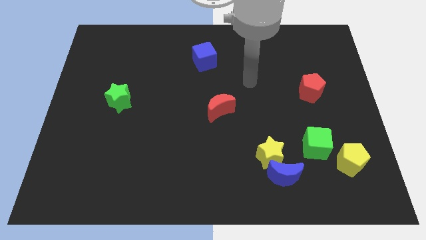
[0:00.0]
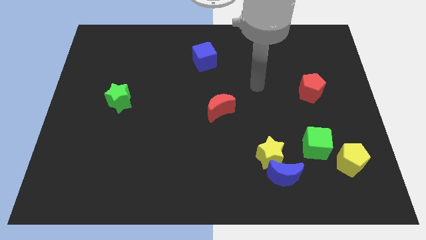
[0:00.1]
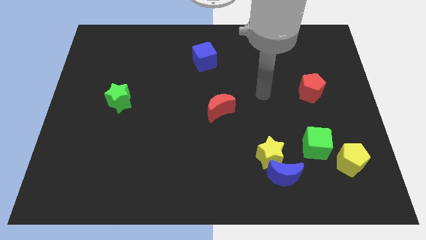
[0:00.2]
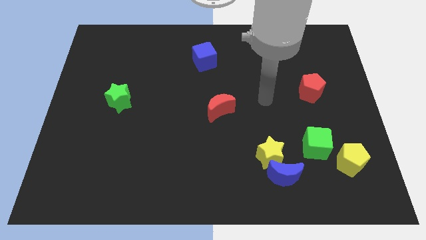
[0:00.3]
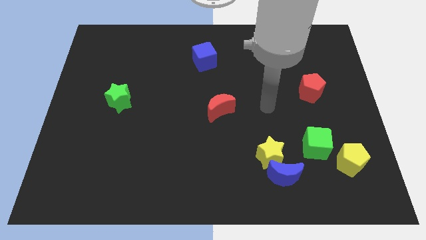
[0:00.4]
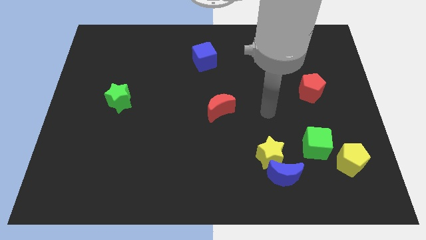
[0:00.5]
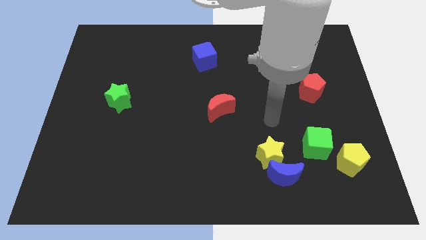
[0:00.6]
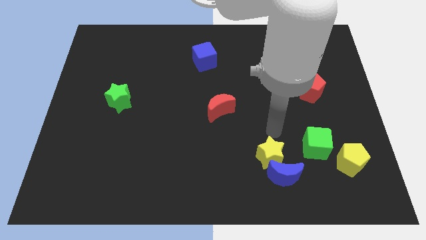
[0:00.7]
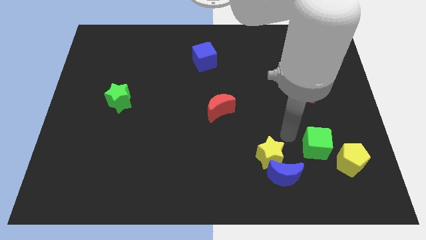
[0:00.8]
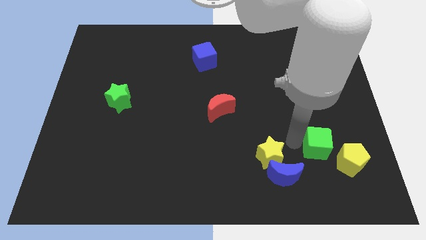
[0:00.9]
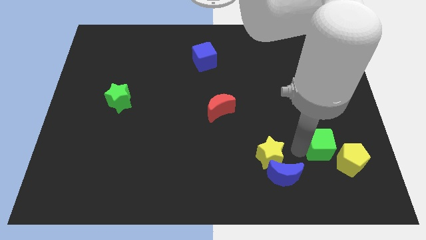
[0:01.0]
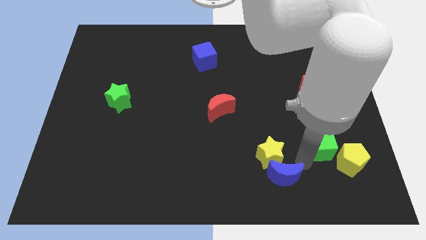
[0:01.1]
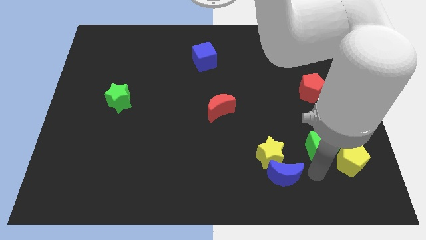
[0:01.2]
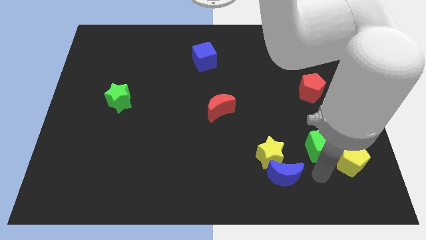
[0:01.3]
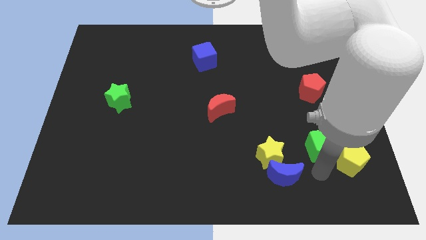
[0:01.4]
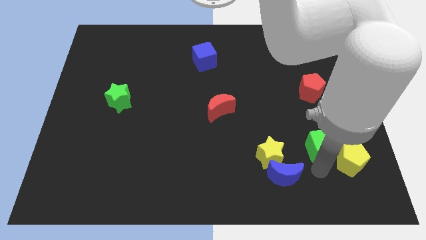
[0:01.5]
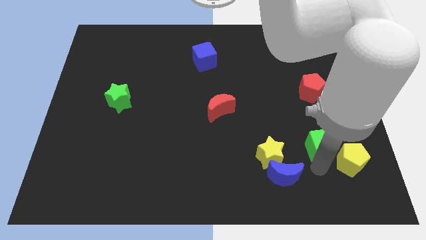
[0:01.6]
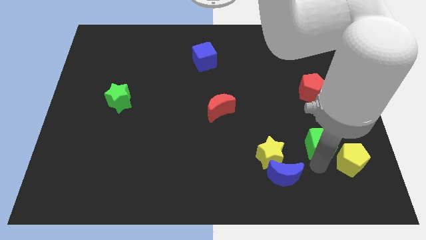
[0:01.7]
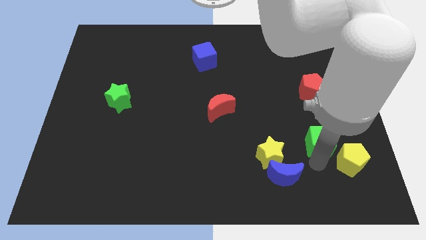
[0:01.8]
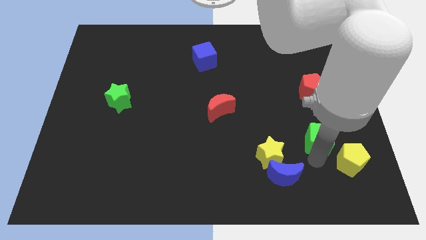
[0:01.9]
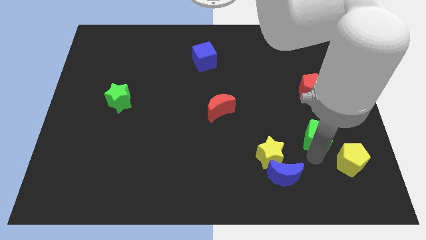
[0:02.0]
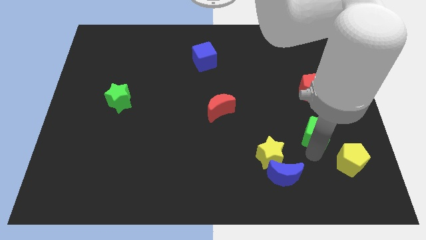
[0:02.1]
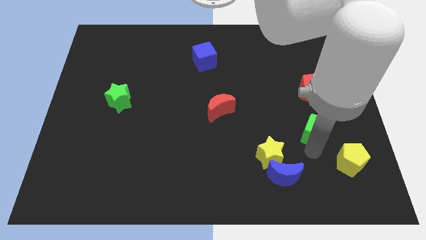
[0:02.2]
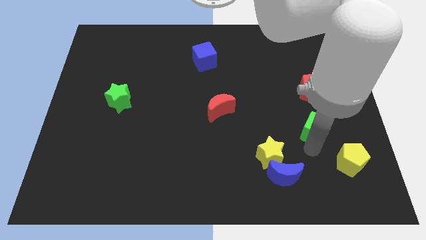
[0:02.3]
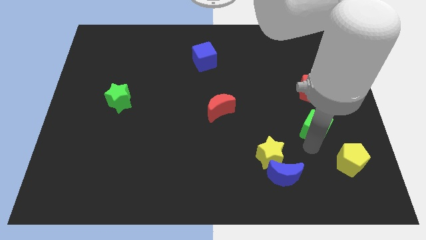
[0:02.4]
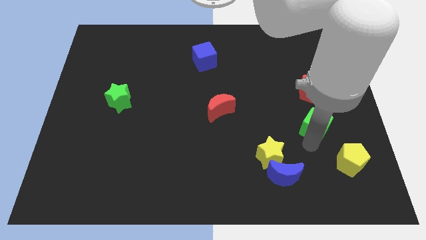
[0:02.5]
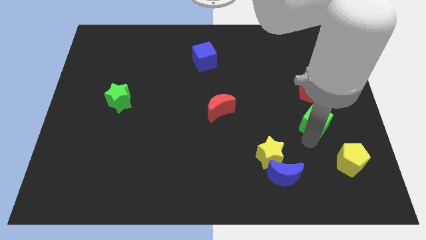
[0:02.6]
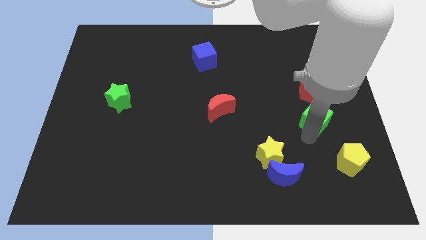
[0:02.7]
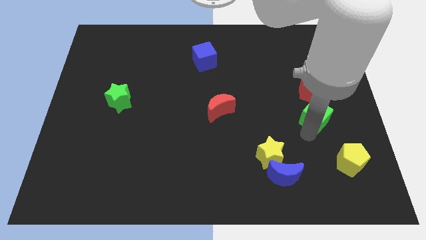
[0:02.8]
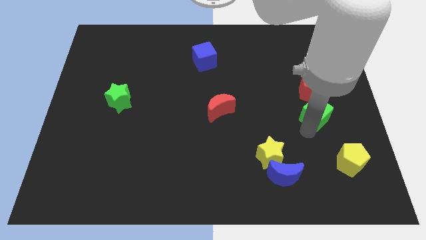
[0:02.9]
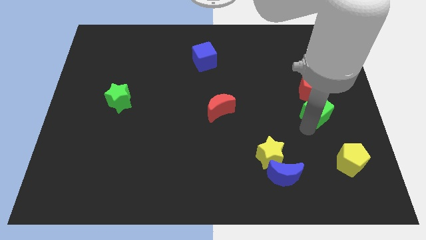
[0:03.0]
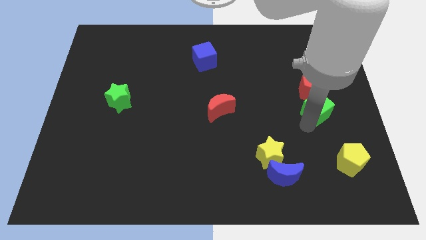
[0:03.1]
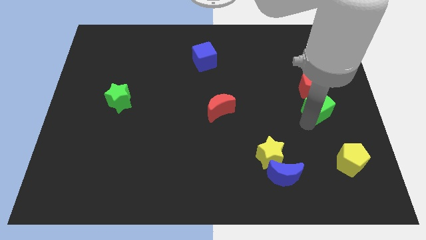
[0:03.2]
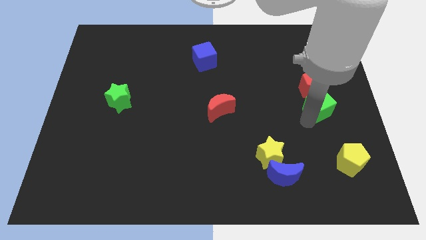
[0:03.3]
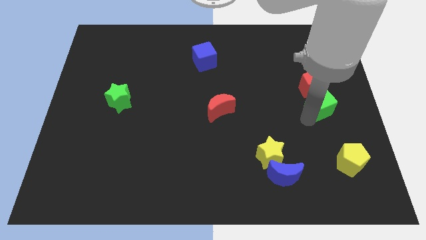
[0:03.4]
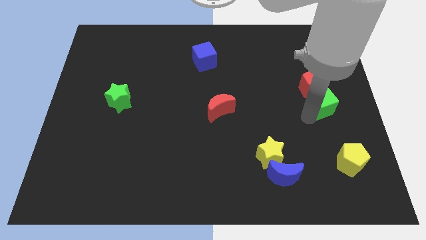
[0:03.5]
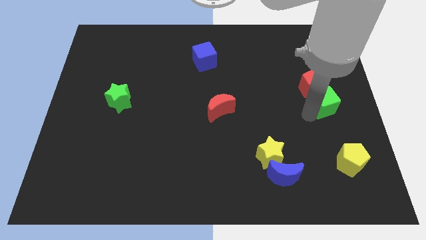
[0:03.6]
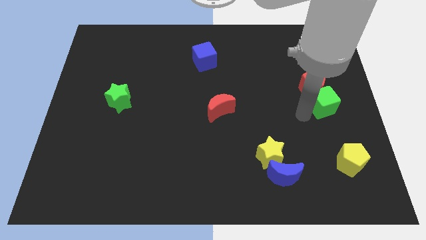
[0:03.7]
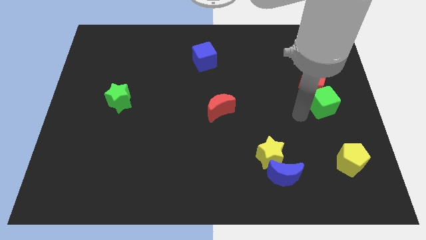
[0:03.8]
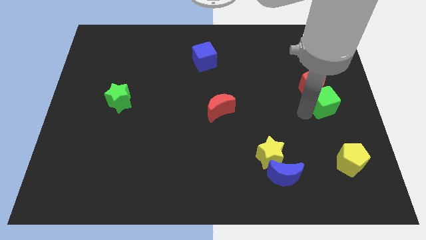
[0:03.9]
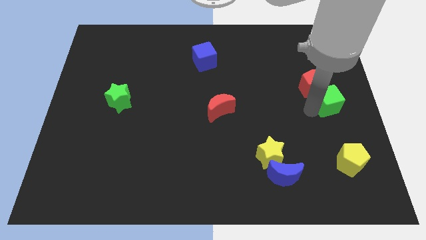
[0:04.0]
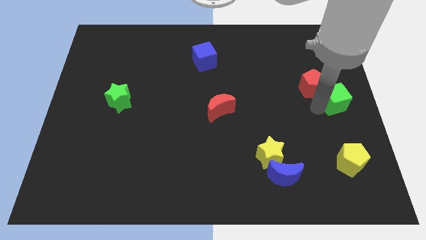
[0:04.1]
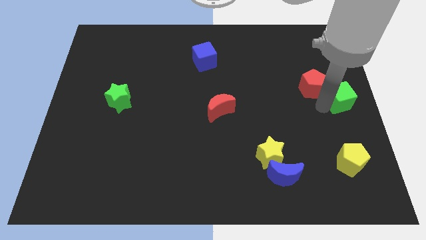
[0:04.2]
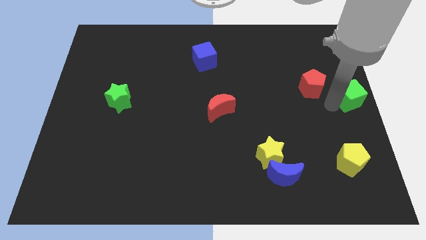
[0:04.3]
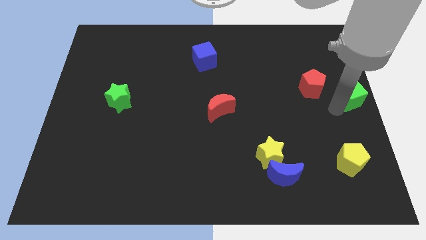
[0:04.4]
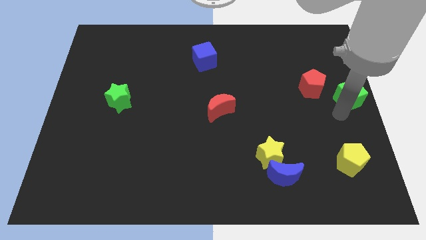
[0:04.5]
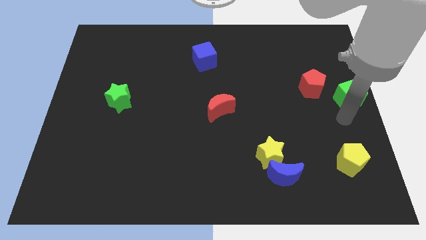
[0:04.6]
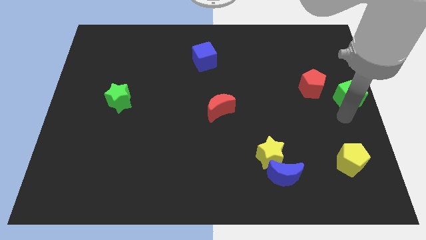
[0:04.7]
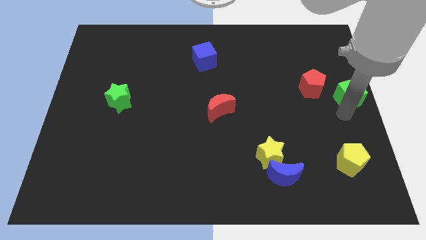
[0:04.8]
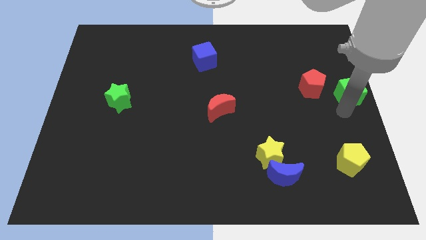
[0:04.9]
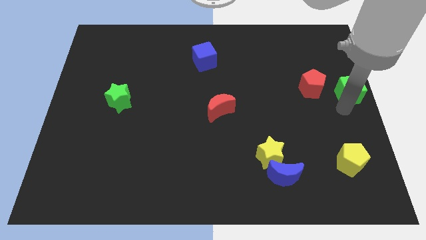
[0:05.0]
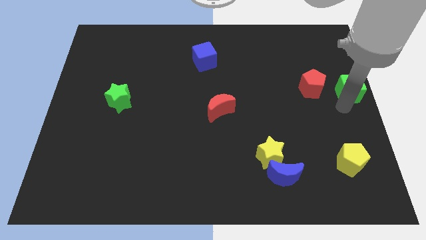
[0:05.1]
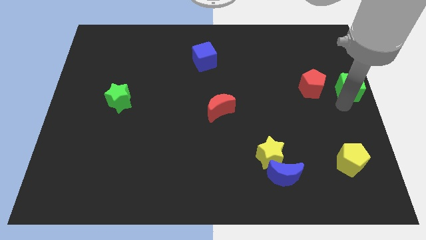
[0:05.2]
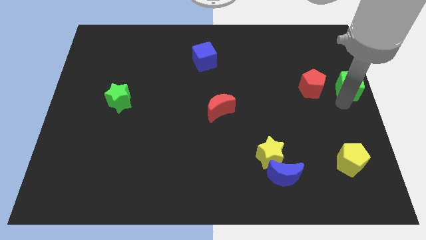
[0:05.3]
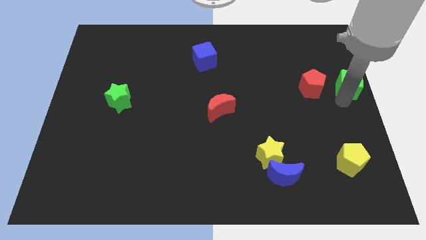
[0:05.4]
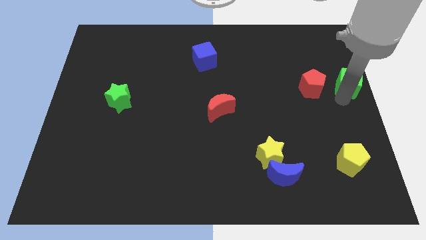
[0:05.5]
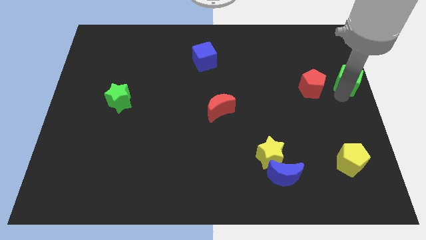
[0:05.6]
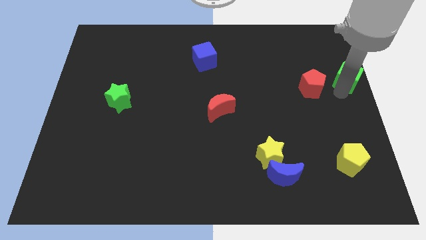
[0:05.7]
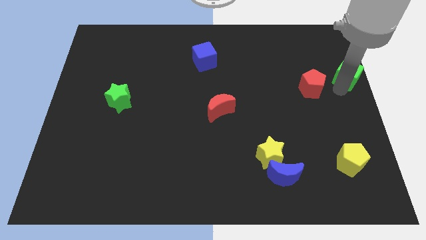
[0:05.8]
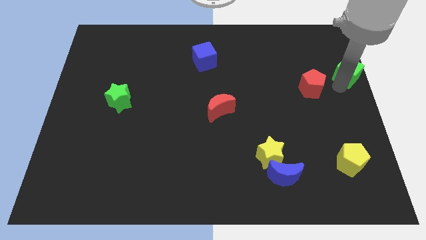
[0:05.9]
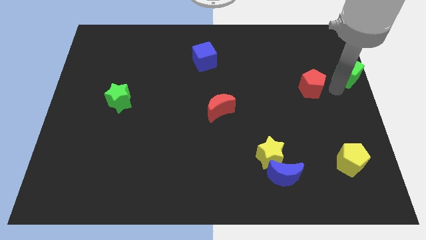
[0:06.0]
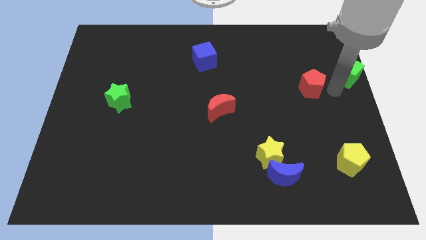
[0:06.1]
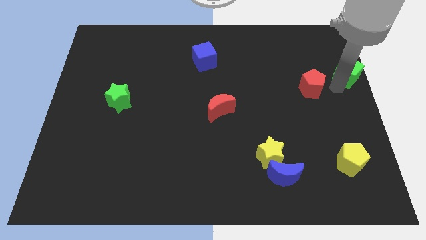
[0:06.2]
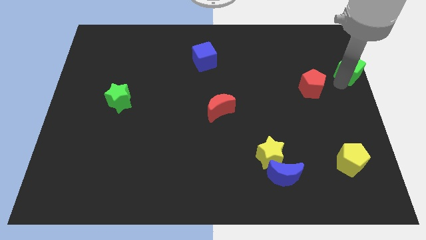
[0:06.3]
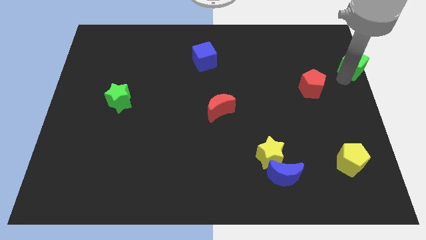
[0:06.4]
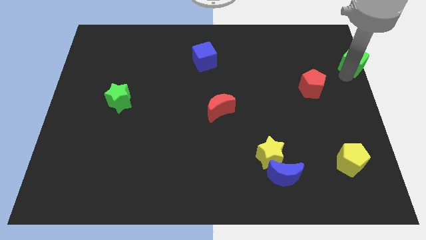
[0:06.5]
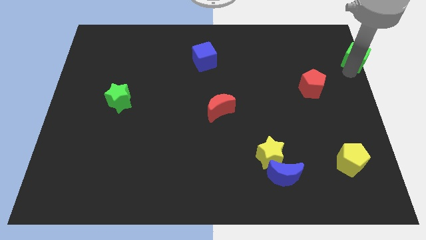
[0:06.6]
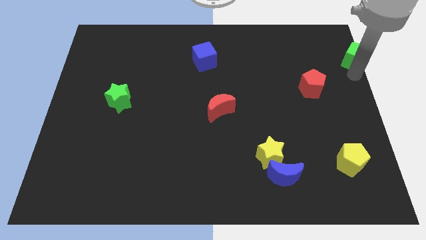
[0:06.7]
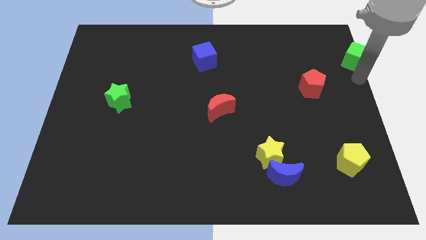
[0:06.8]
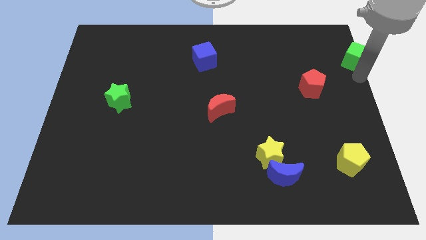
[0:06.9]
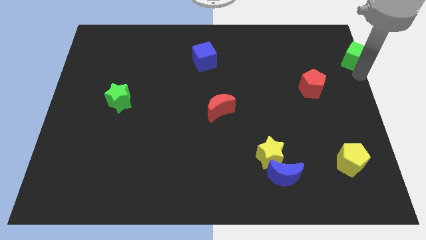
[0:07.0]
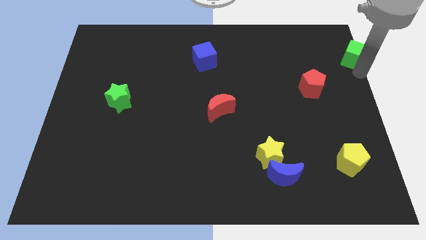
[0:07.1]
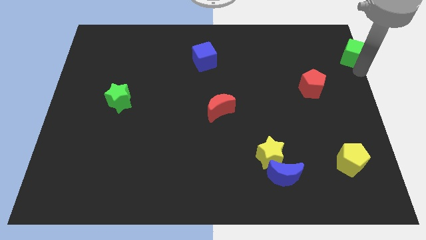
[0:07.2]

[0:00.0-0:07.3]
slide the green cube to the upper right corner
